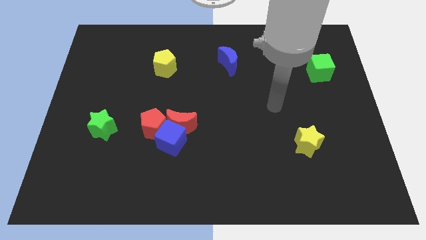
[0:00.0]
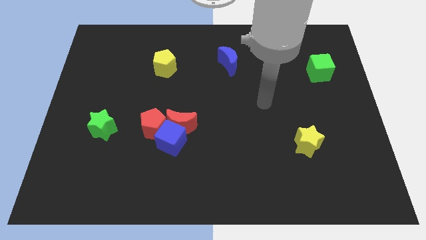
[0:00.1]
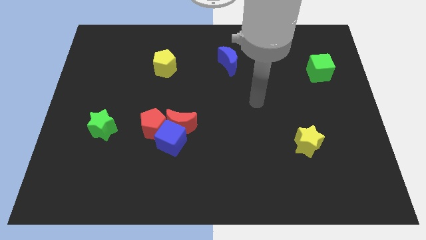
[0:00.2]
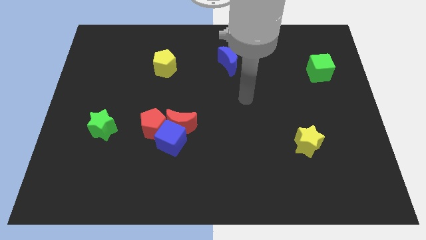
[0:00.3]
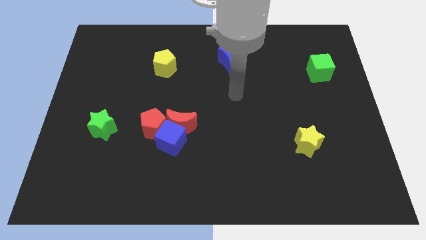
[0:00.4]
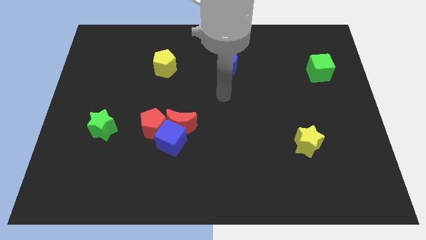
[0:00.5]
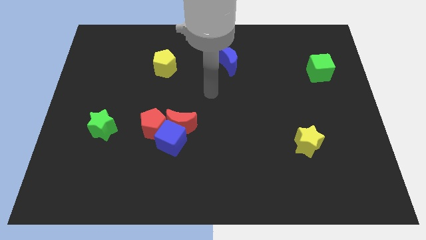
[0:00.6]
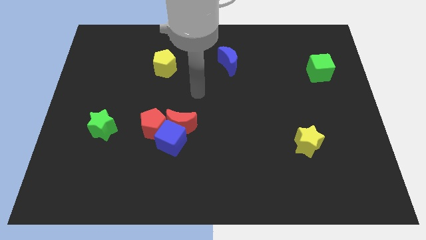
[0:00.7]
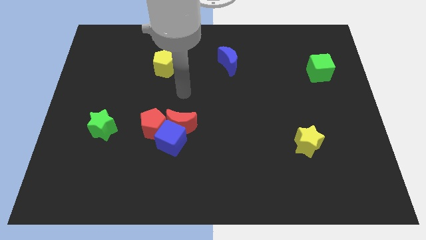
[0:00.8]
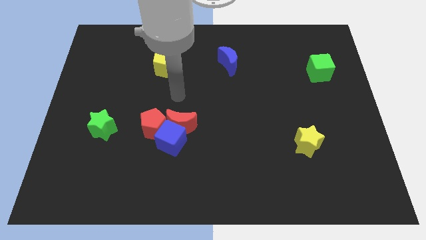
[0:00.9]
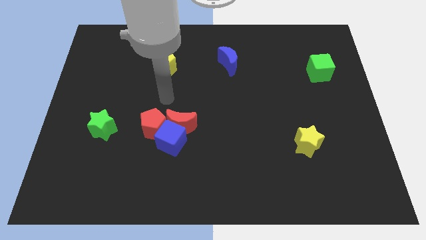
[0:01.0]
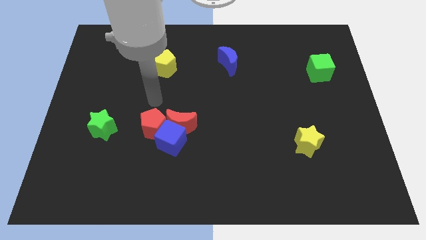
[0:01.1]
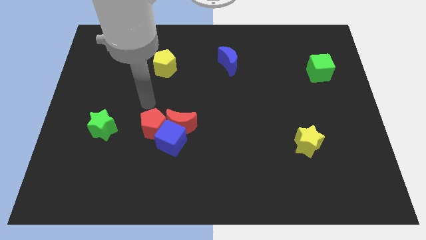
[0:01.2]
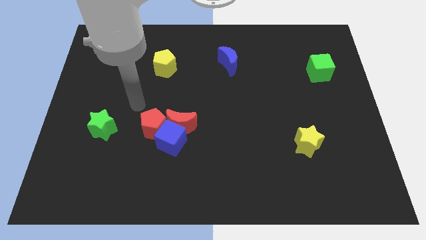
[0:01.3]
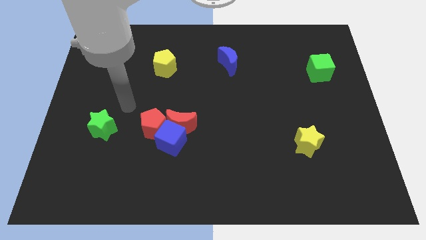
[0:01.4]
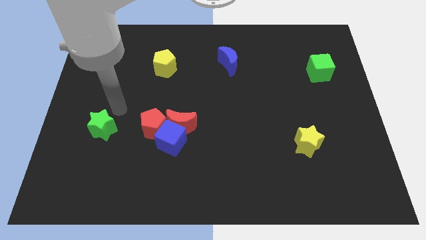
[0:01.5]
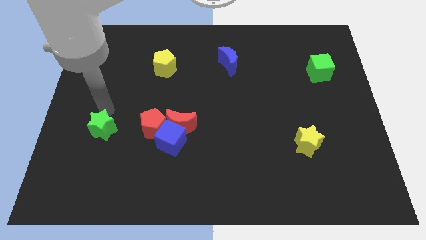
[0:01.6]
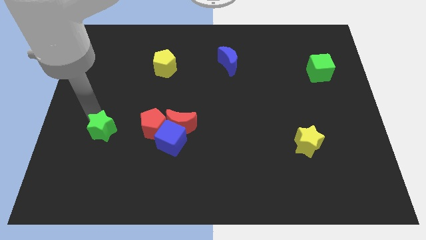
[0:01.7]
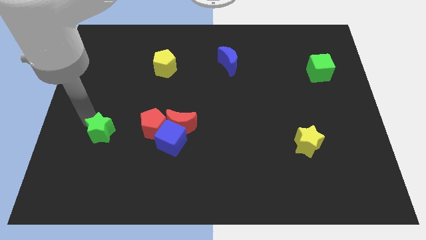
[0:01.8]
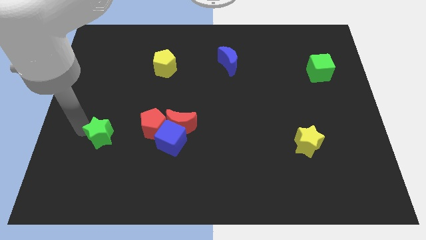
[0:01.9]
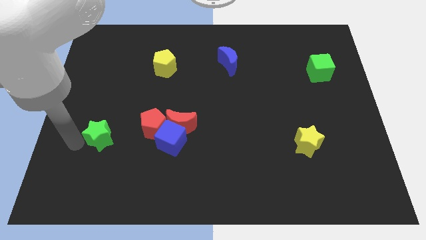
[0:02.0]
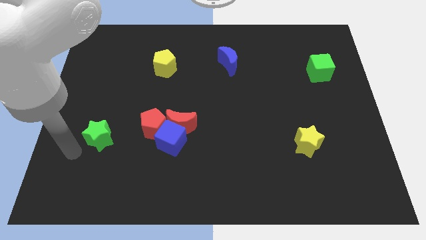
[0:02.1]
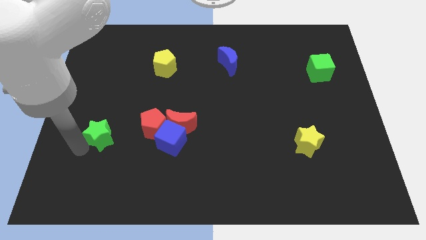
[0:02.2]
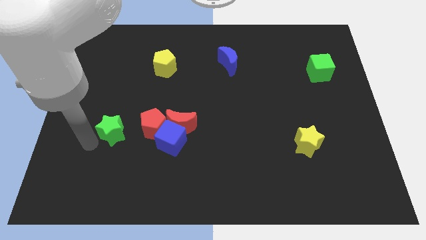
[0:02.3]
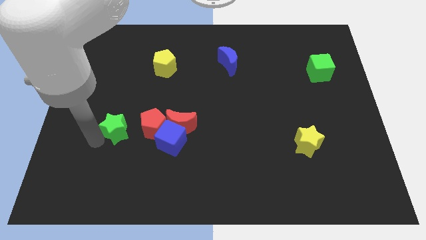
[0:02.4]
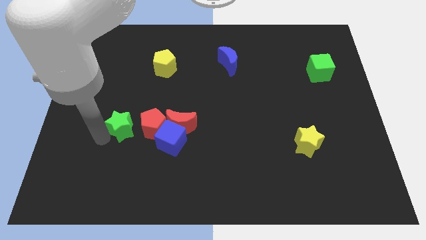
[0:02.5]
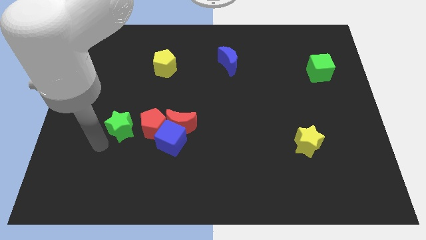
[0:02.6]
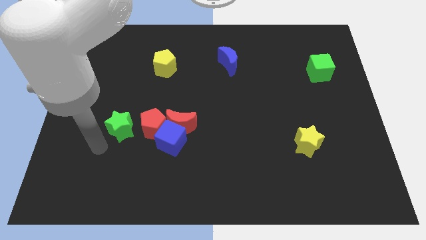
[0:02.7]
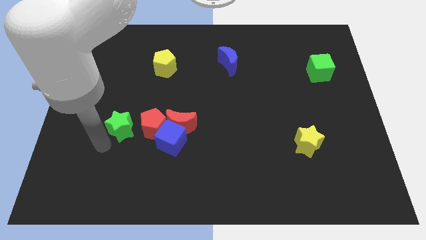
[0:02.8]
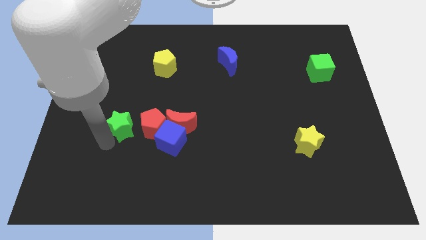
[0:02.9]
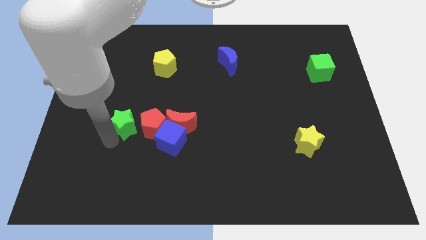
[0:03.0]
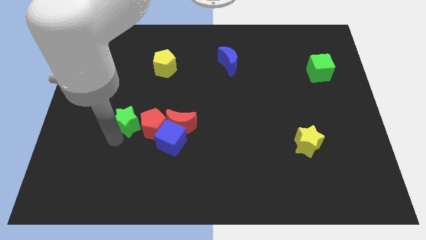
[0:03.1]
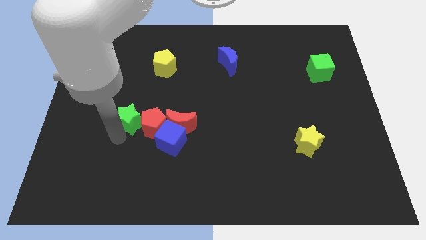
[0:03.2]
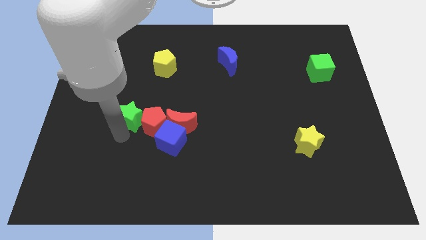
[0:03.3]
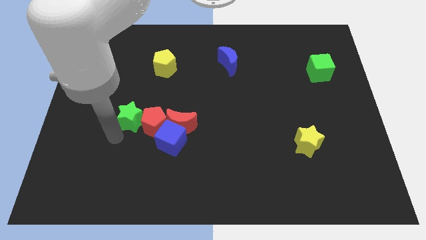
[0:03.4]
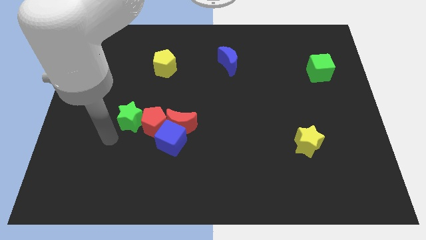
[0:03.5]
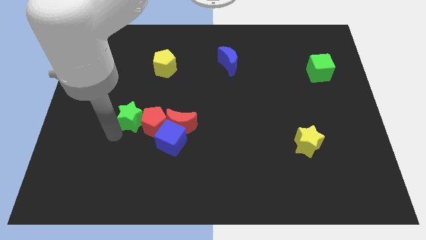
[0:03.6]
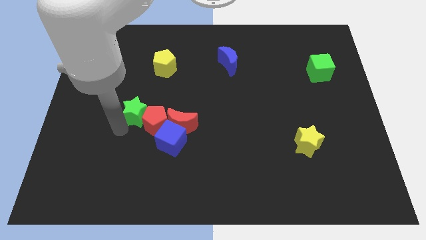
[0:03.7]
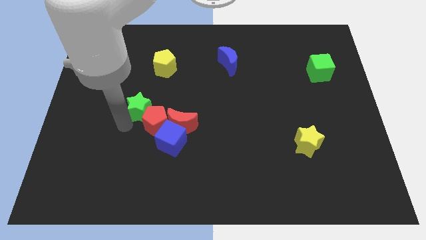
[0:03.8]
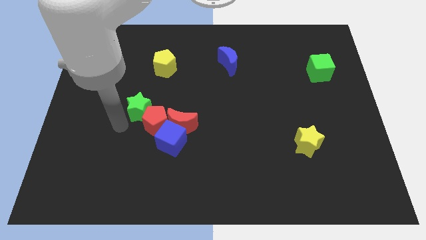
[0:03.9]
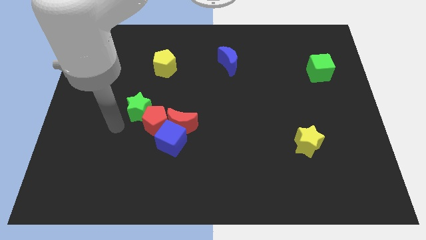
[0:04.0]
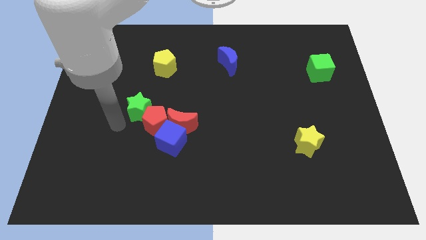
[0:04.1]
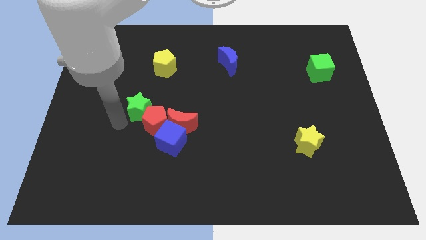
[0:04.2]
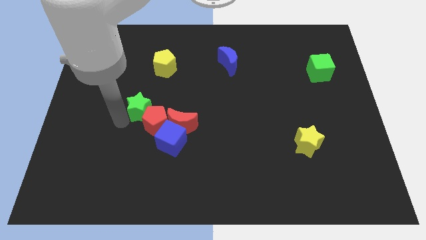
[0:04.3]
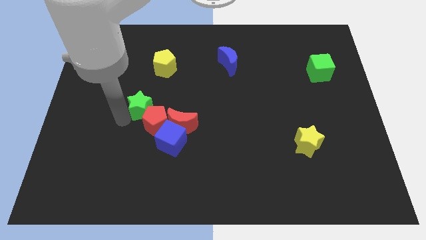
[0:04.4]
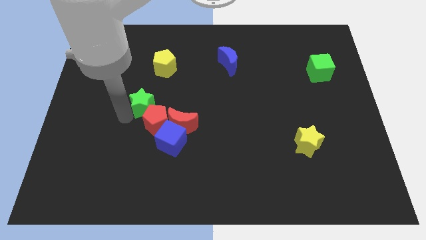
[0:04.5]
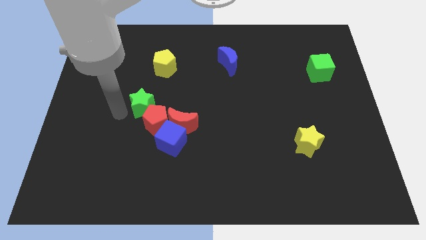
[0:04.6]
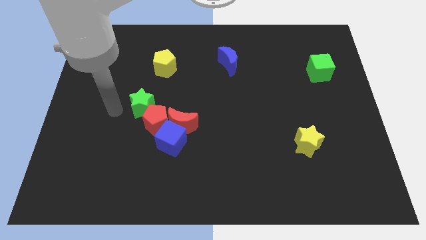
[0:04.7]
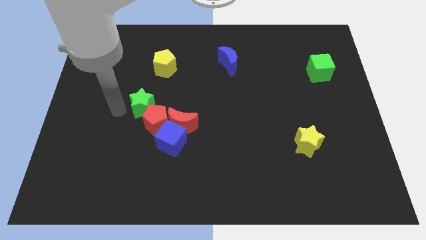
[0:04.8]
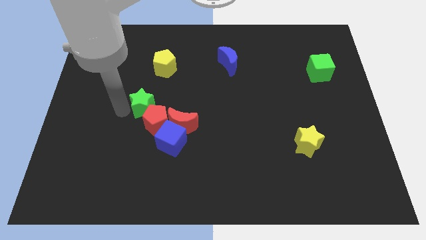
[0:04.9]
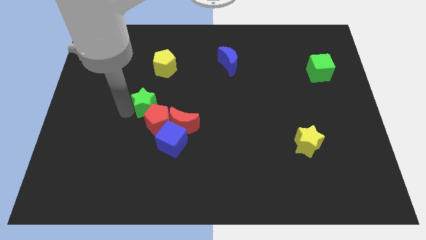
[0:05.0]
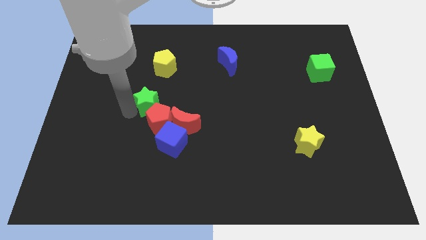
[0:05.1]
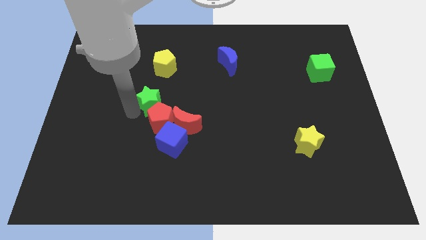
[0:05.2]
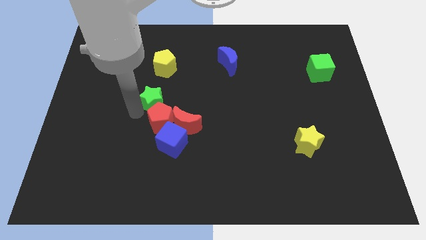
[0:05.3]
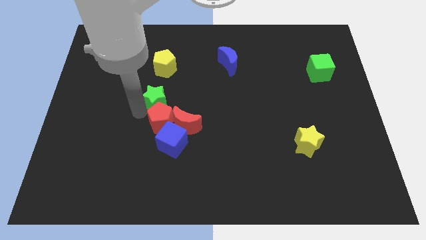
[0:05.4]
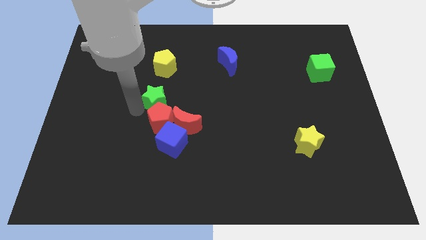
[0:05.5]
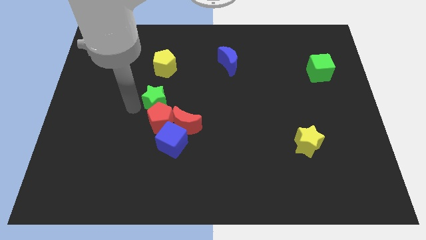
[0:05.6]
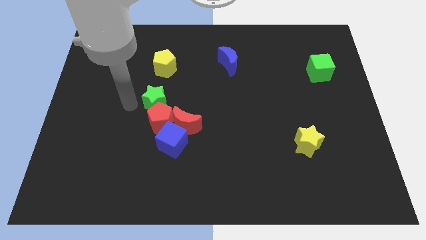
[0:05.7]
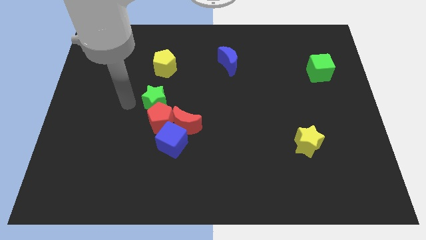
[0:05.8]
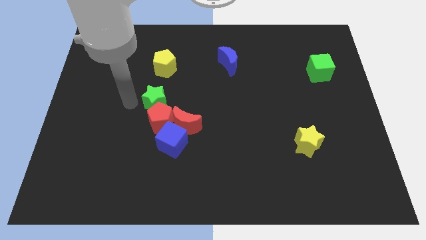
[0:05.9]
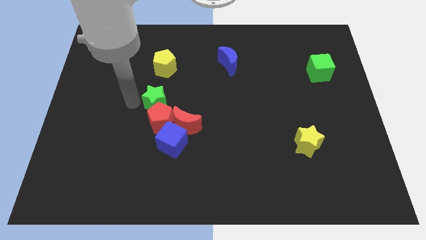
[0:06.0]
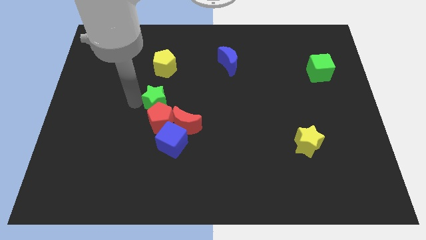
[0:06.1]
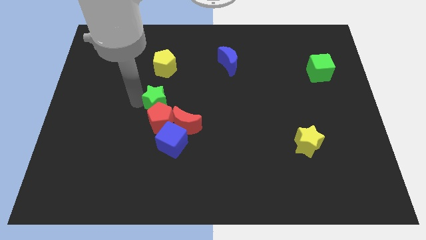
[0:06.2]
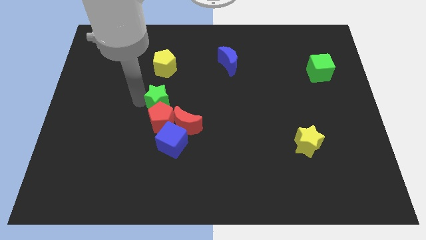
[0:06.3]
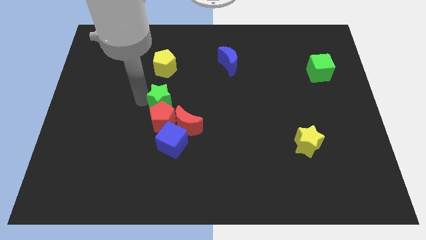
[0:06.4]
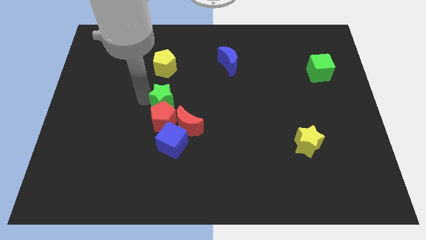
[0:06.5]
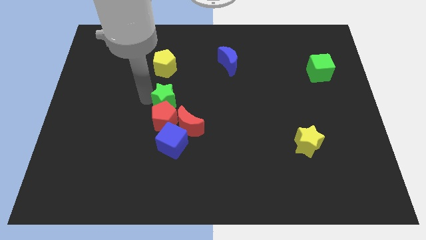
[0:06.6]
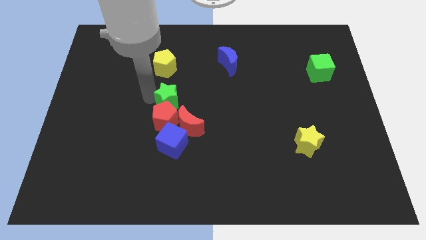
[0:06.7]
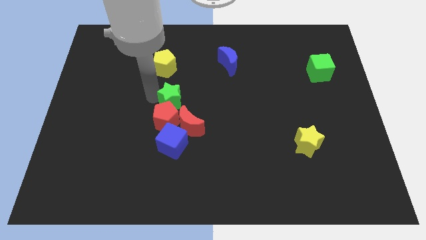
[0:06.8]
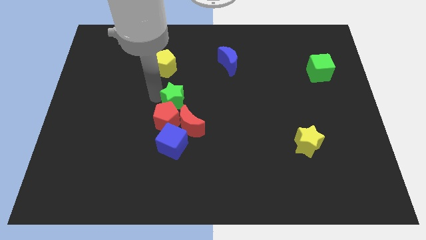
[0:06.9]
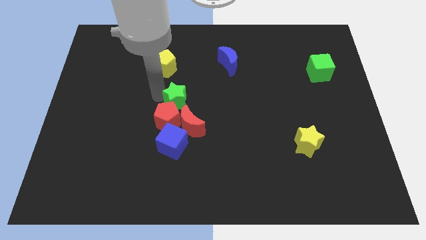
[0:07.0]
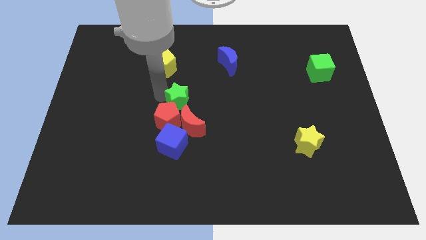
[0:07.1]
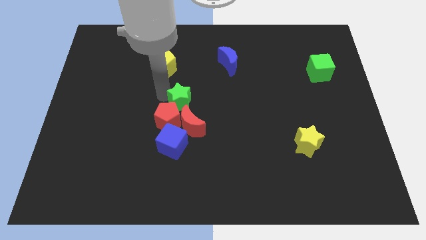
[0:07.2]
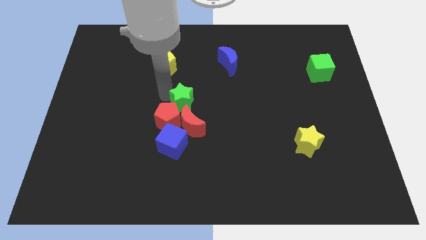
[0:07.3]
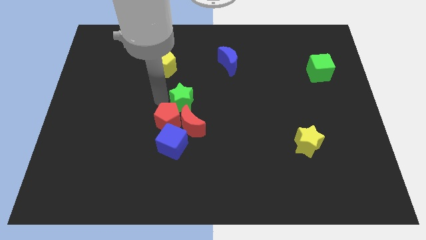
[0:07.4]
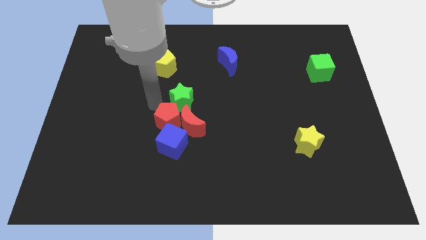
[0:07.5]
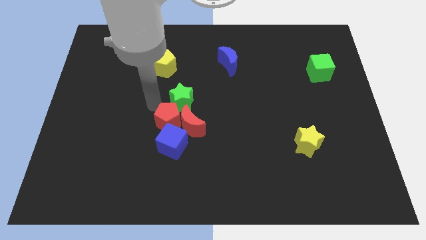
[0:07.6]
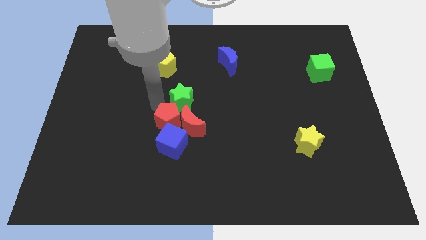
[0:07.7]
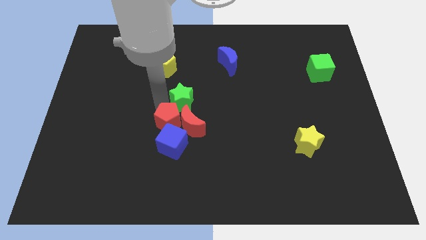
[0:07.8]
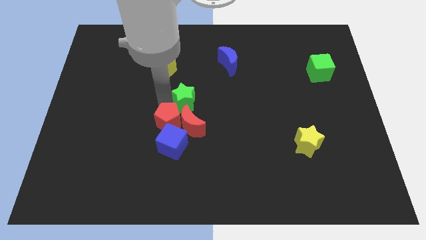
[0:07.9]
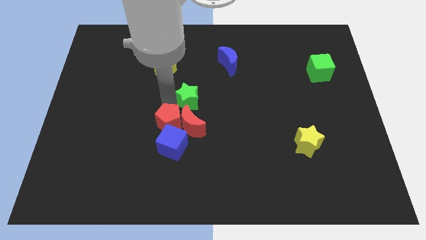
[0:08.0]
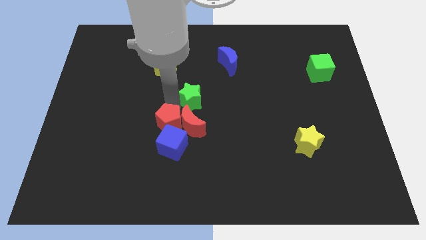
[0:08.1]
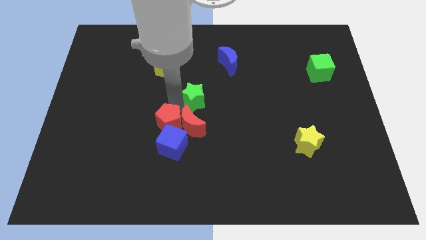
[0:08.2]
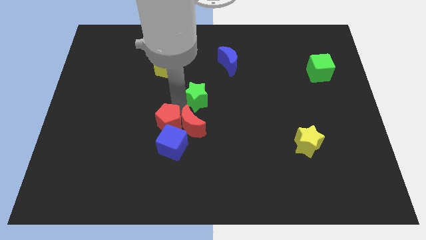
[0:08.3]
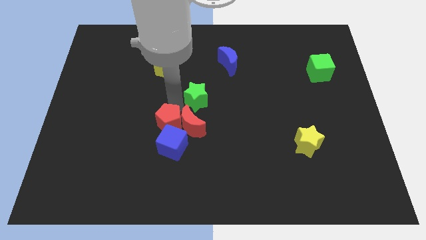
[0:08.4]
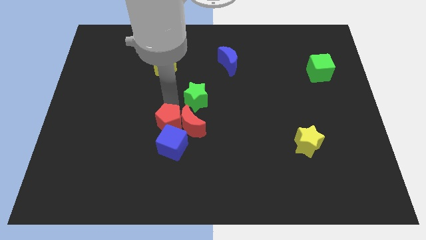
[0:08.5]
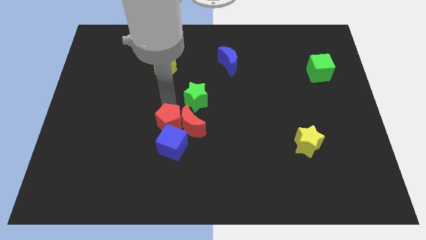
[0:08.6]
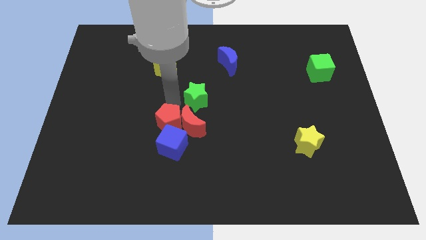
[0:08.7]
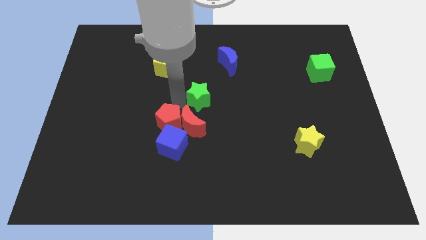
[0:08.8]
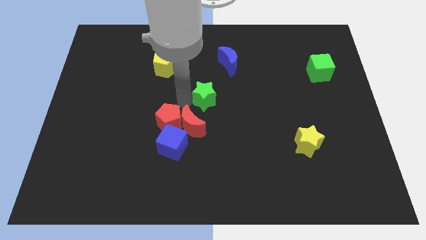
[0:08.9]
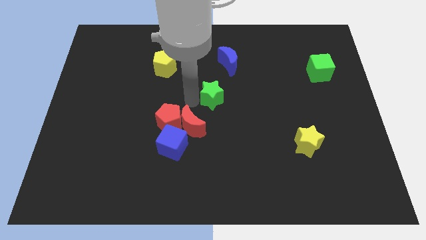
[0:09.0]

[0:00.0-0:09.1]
move the green star to the bottom side of the blue moon
